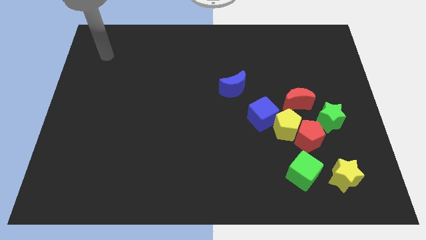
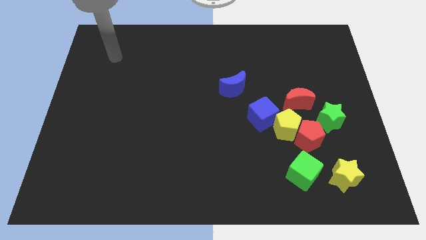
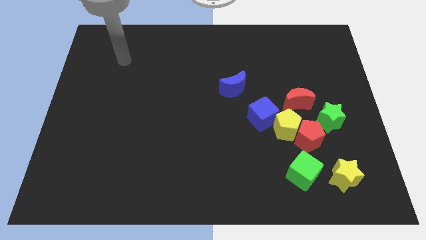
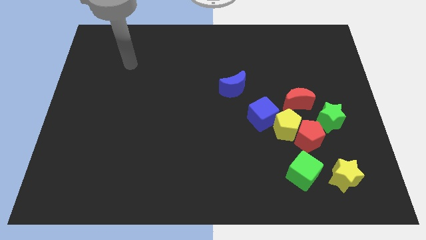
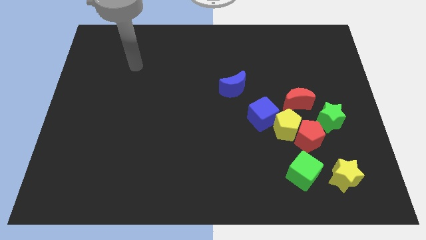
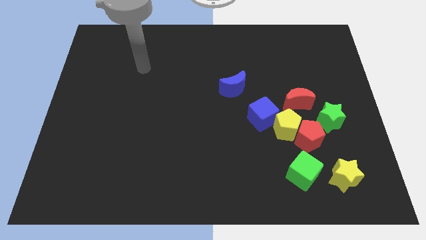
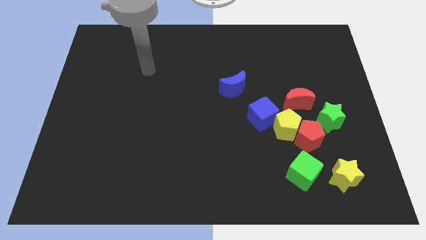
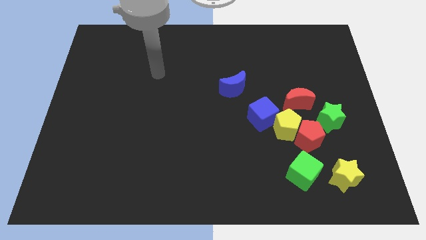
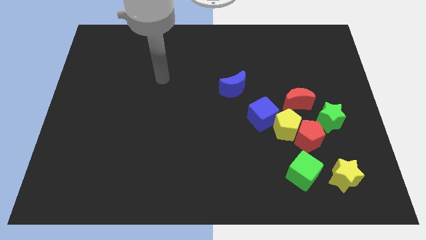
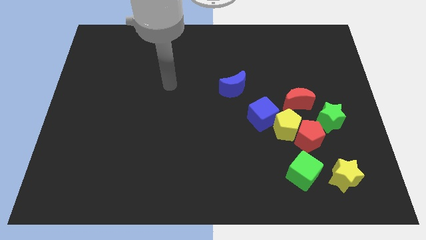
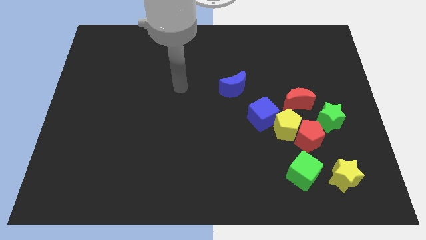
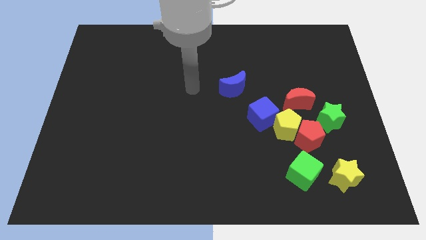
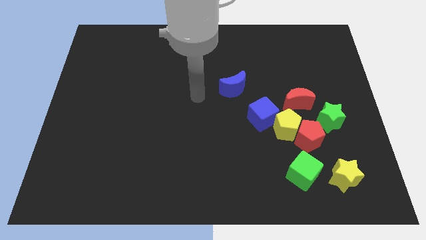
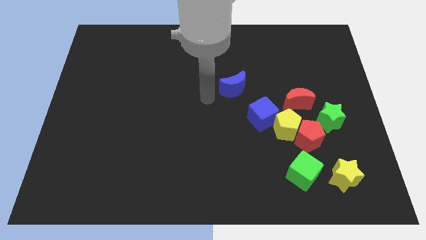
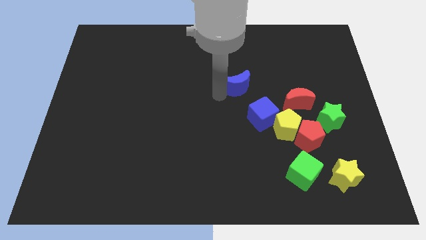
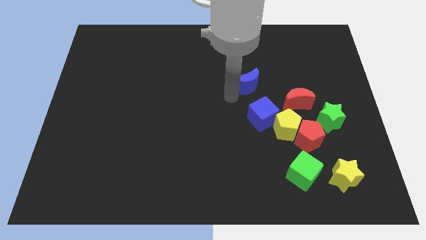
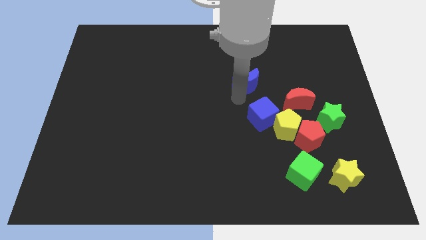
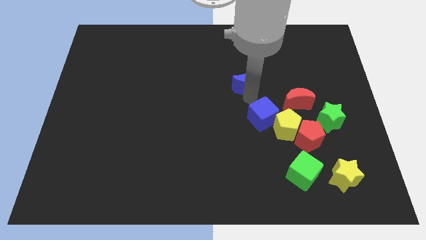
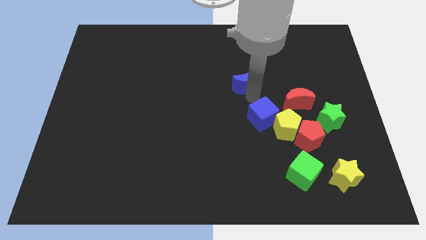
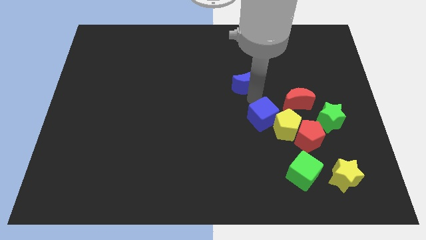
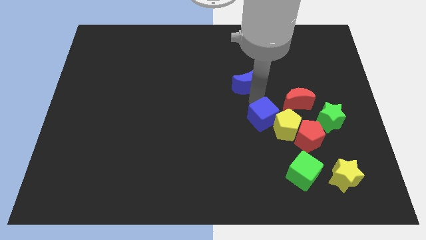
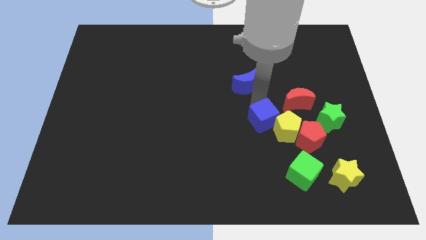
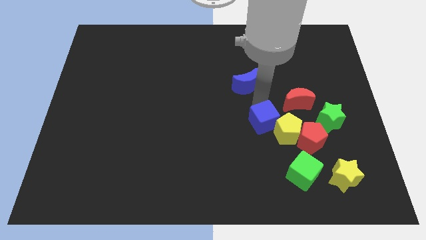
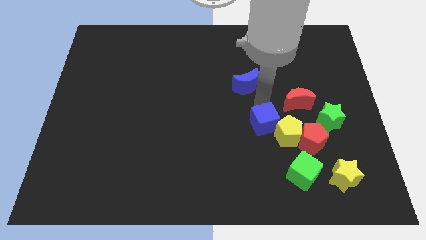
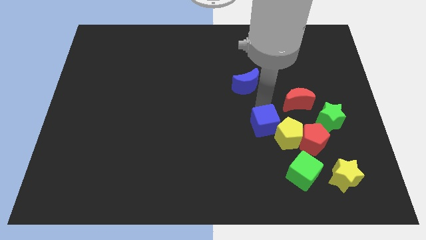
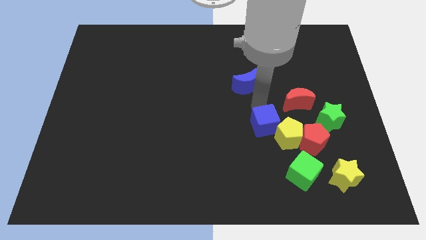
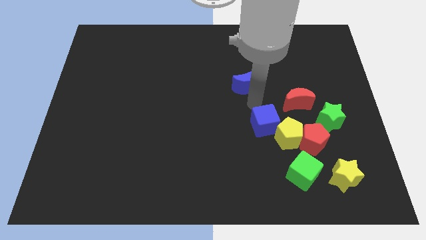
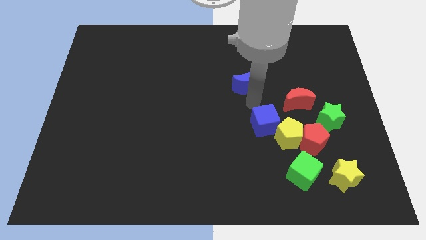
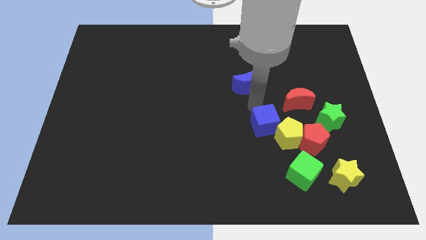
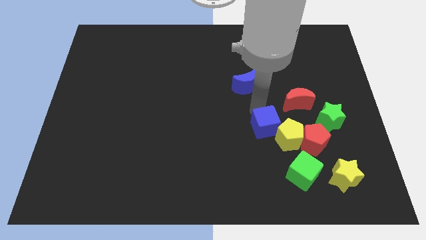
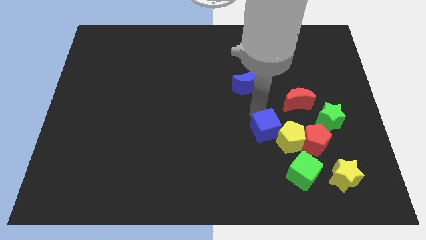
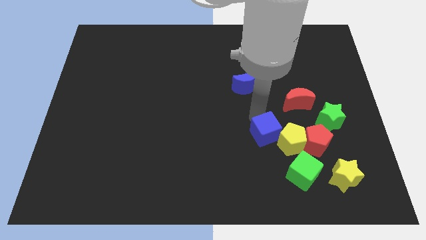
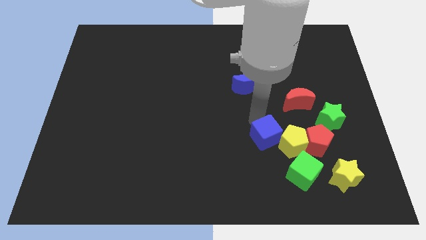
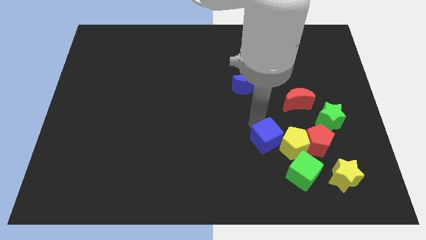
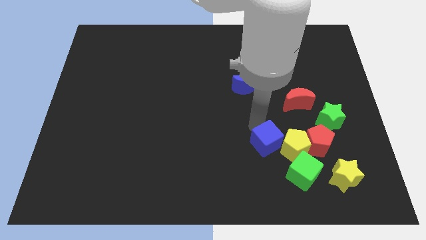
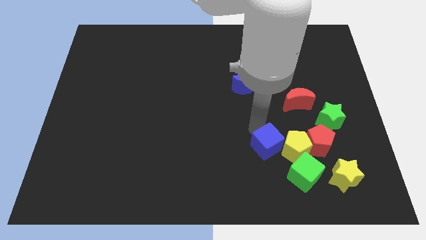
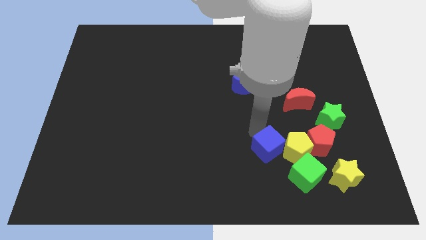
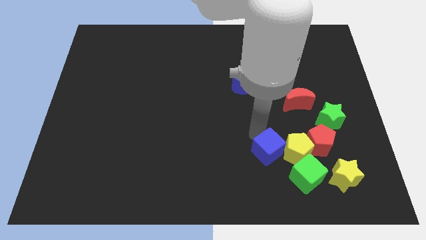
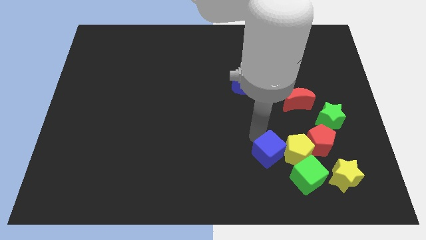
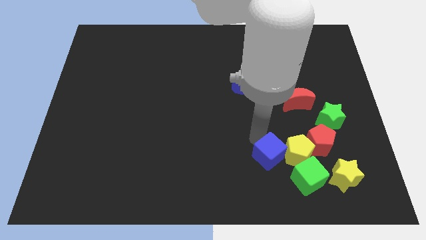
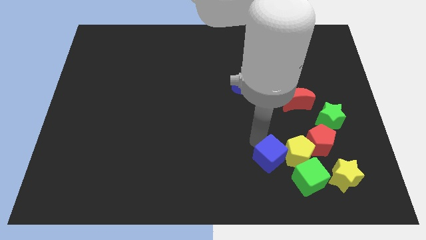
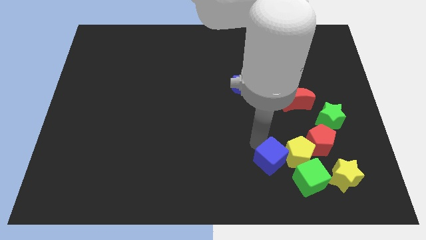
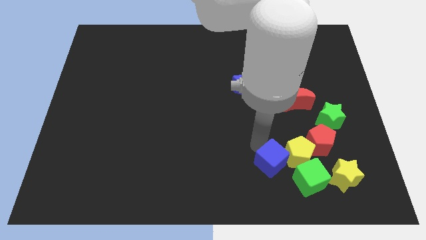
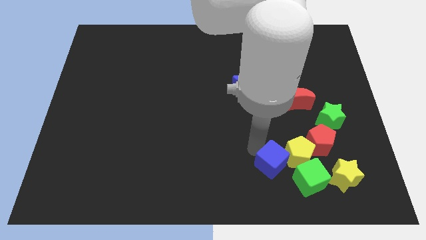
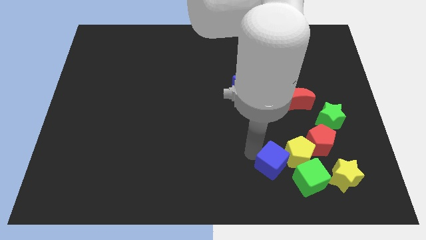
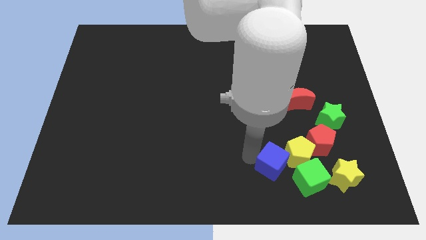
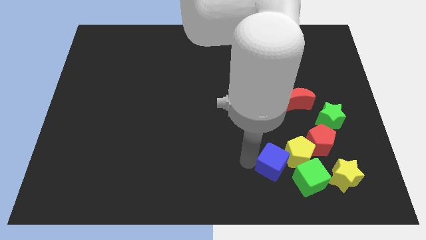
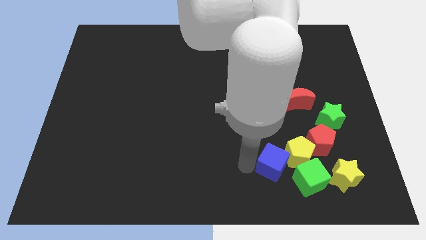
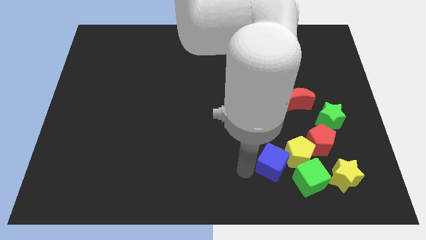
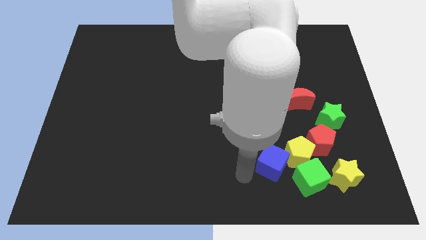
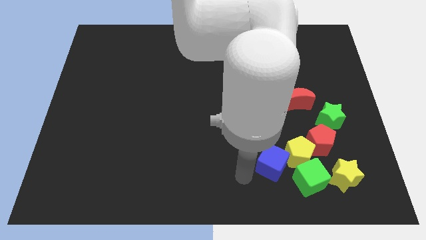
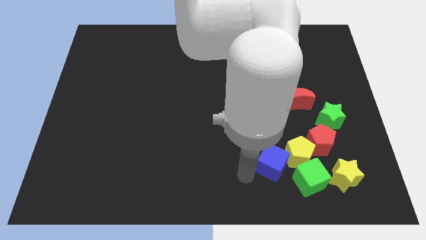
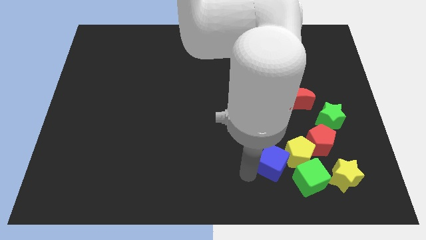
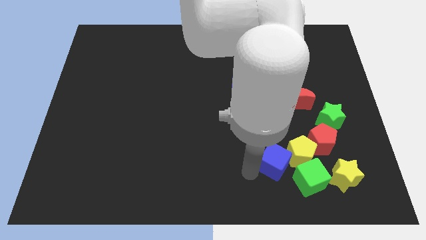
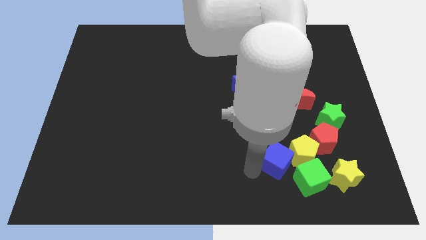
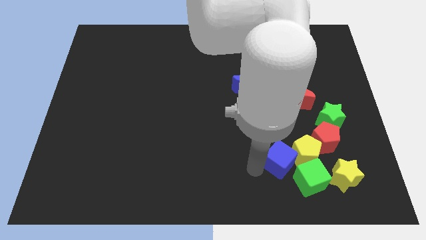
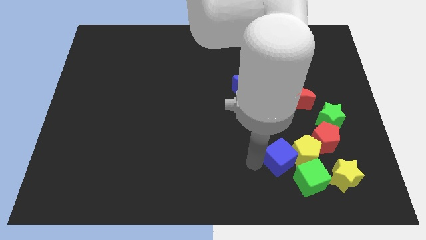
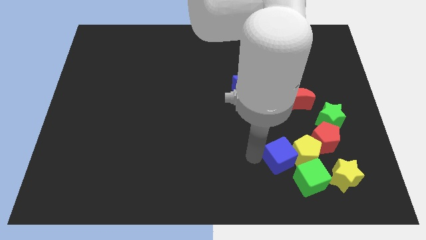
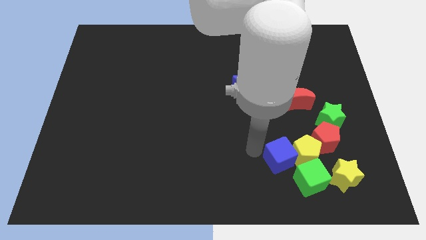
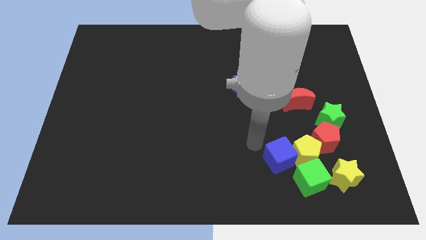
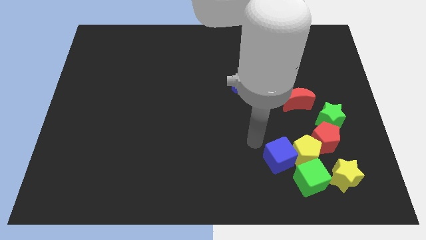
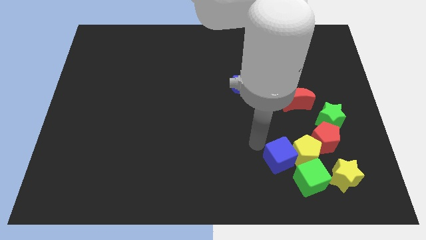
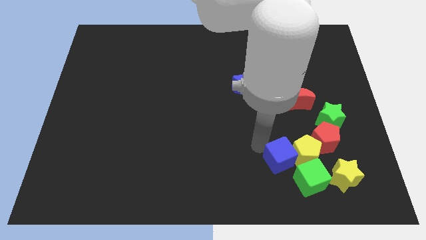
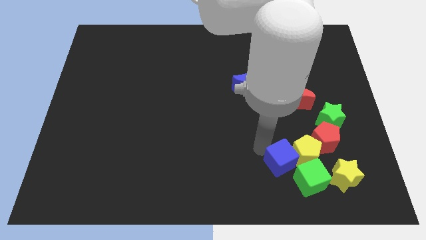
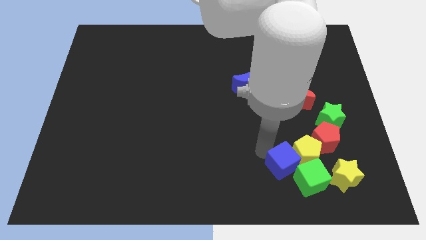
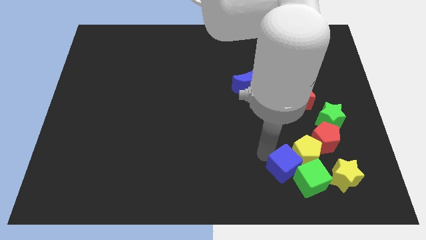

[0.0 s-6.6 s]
move the blue cube to the green cube

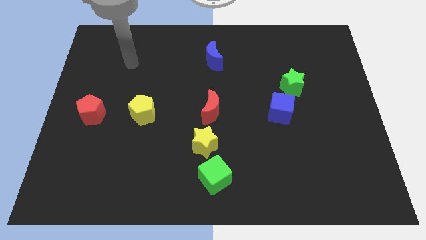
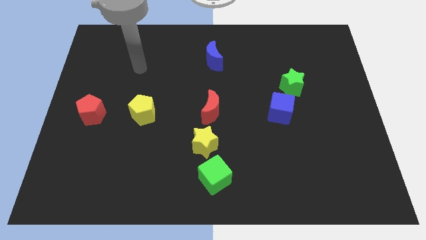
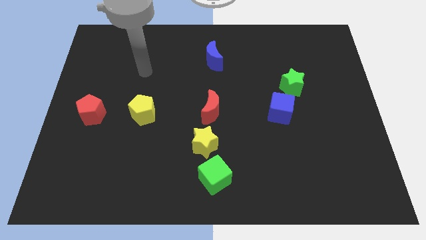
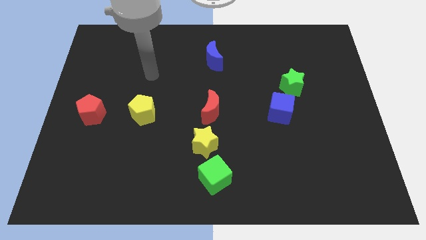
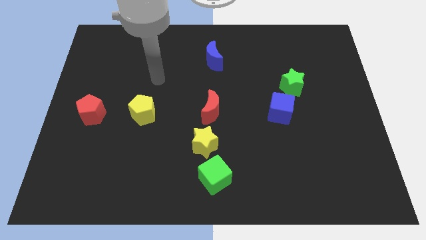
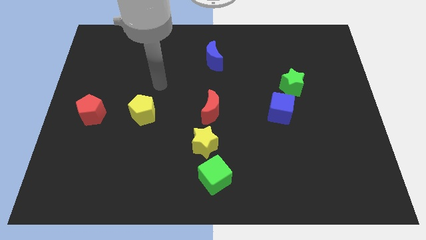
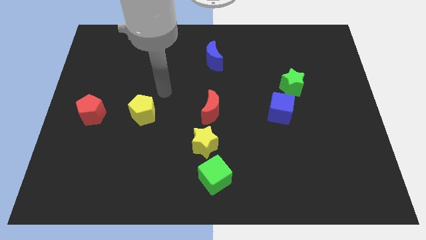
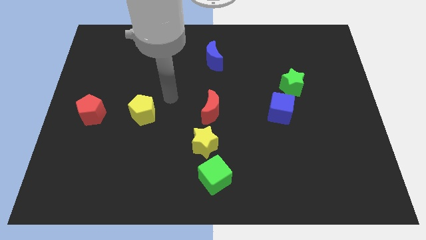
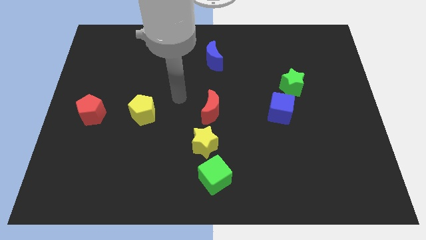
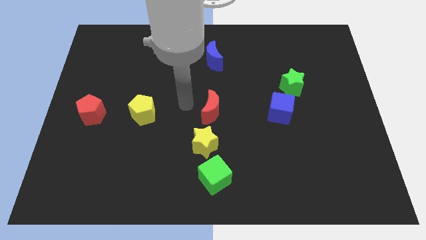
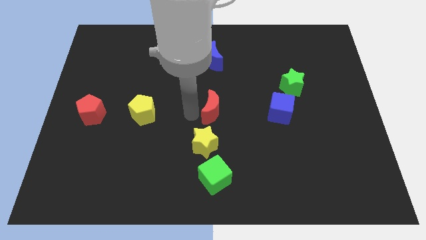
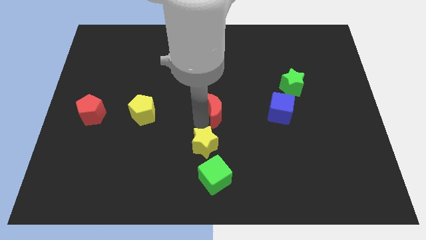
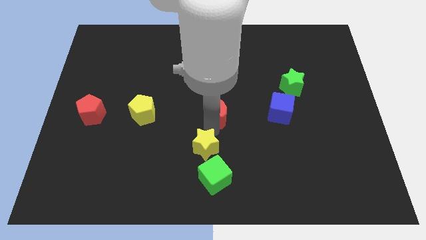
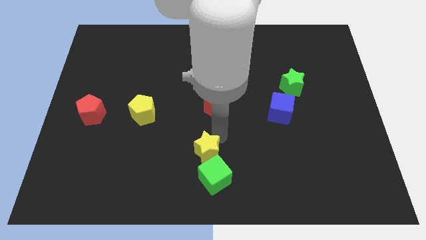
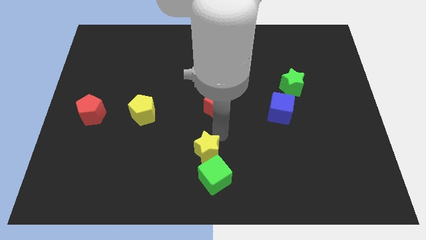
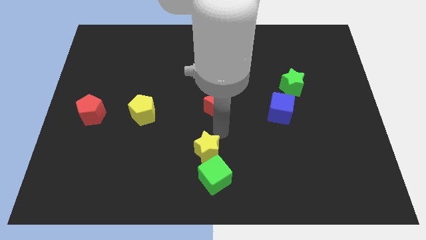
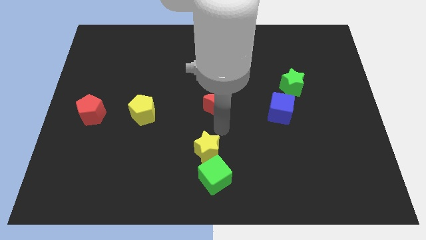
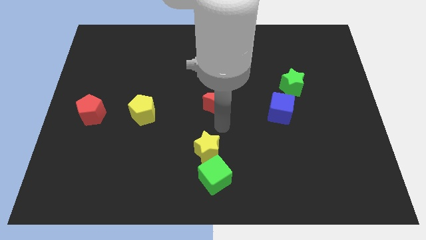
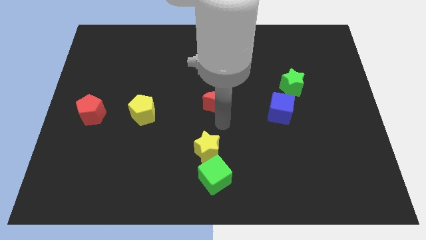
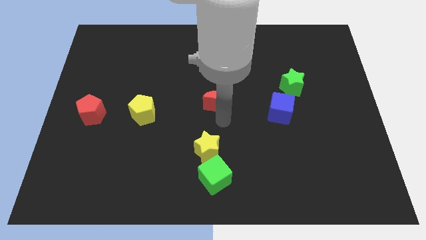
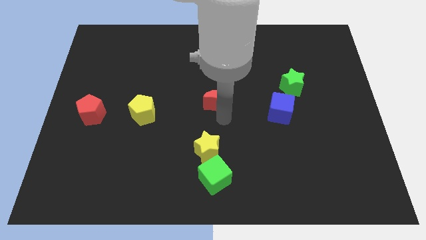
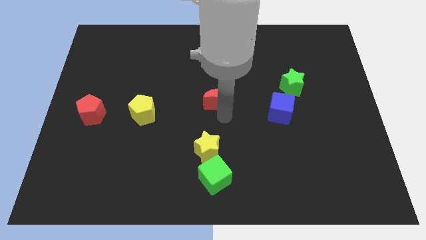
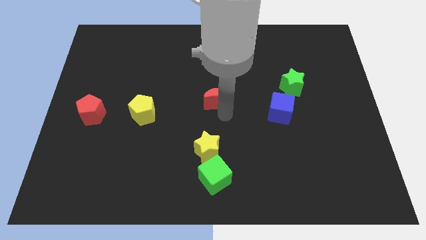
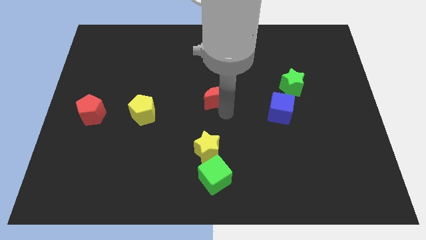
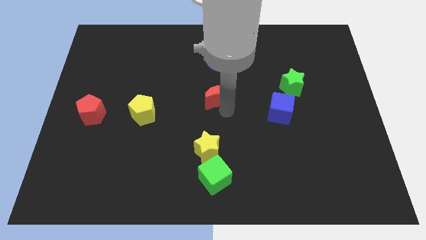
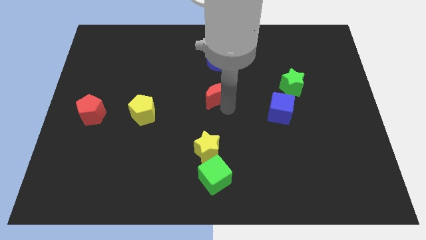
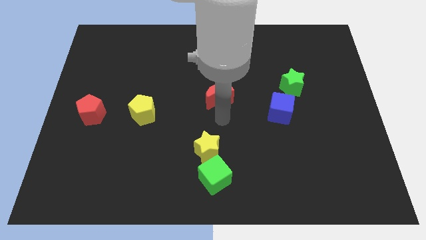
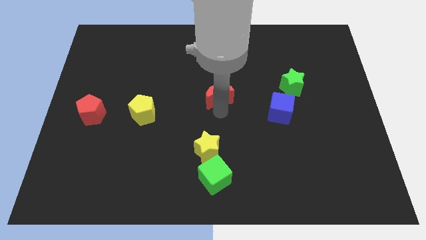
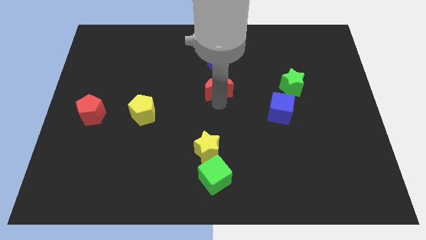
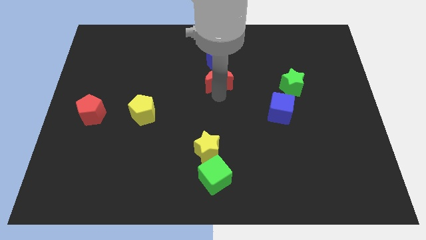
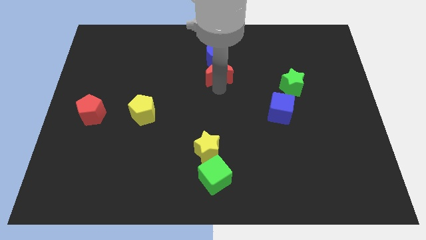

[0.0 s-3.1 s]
slide the red moon close to the blue moon
